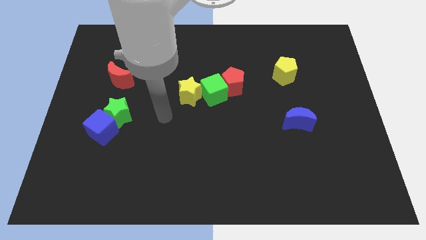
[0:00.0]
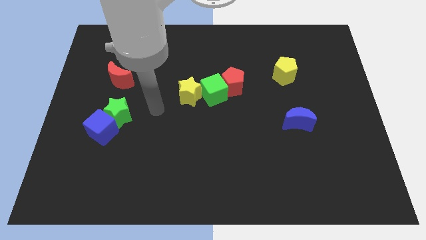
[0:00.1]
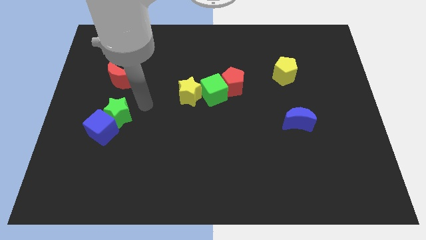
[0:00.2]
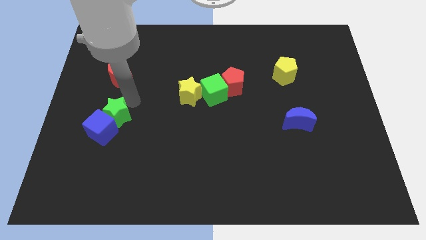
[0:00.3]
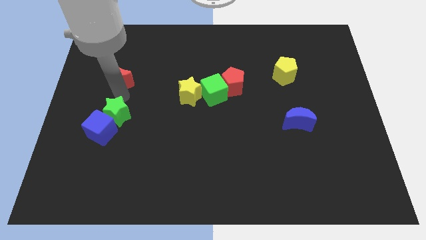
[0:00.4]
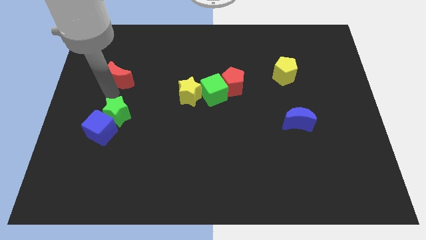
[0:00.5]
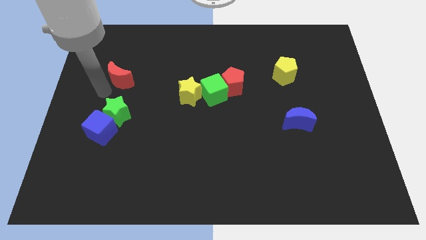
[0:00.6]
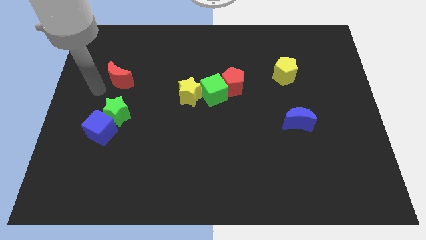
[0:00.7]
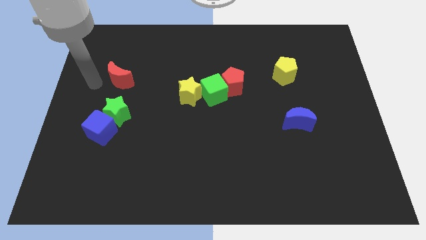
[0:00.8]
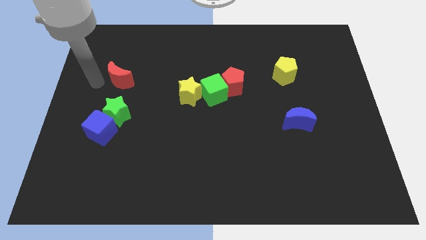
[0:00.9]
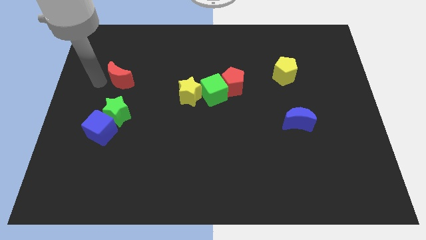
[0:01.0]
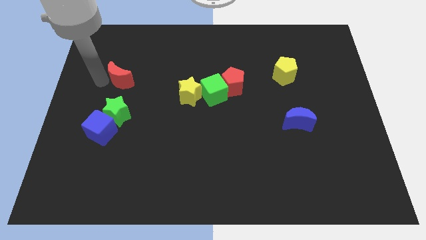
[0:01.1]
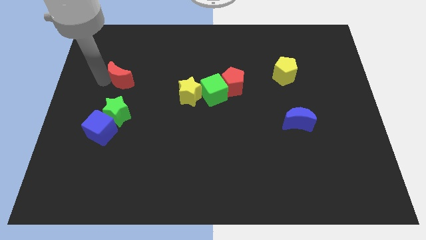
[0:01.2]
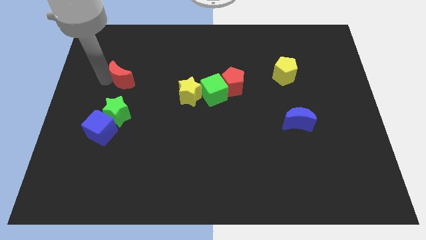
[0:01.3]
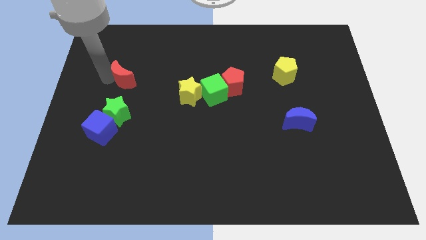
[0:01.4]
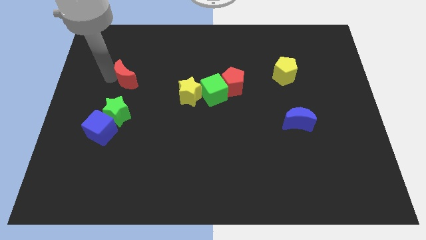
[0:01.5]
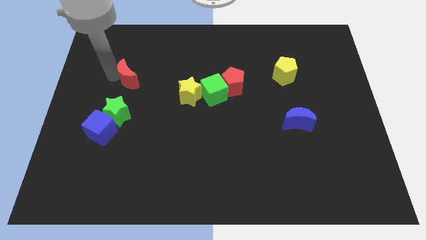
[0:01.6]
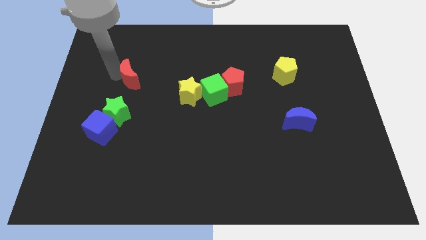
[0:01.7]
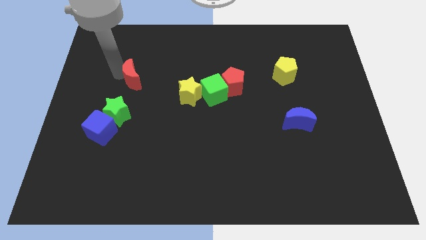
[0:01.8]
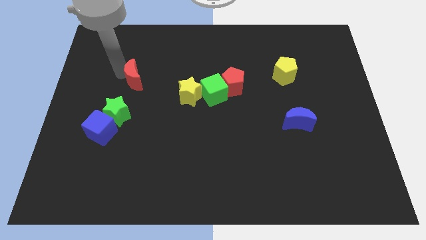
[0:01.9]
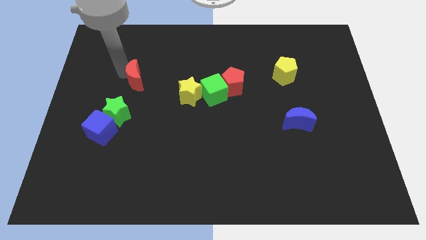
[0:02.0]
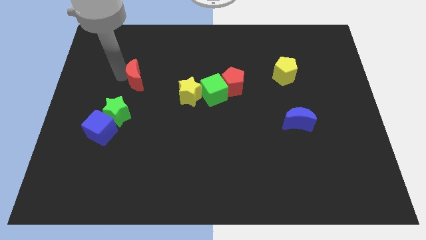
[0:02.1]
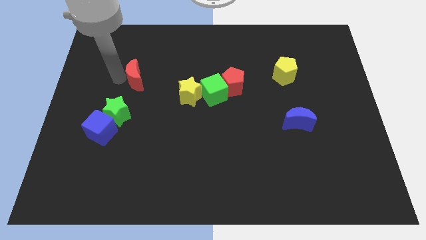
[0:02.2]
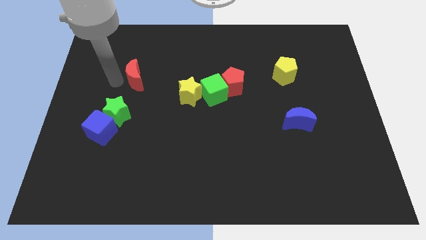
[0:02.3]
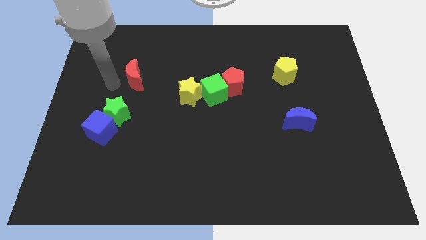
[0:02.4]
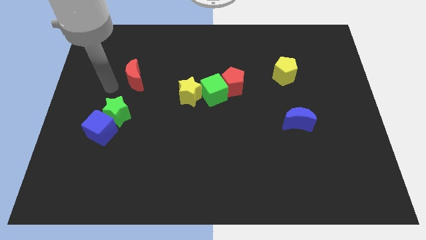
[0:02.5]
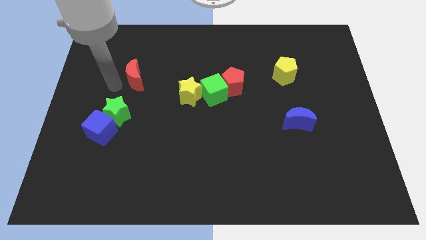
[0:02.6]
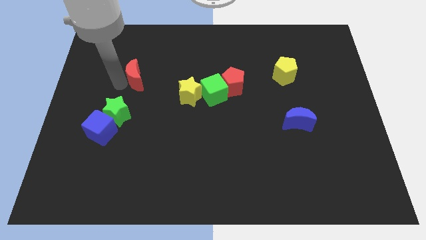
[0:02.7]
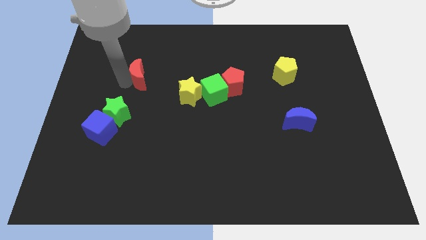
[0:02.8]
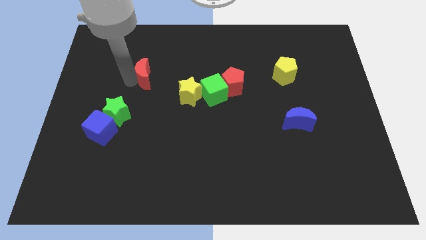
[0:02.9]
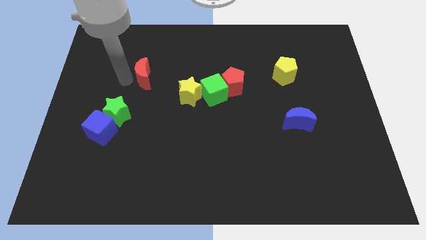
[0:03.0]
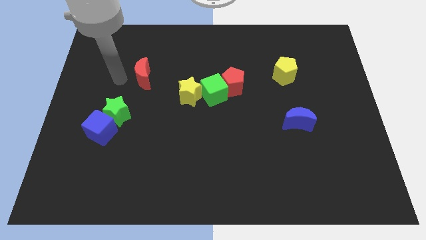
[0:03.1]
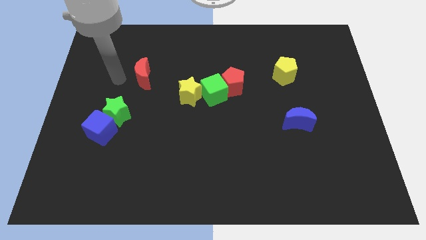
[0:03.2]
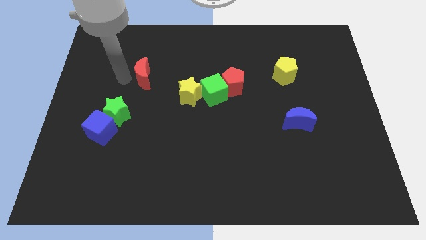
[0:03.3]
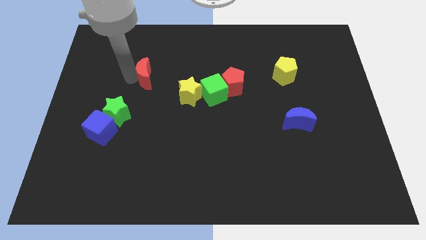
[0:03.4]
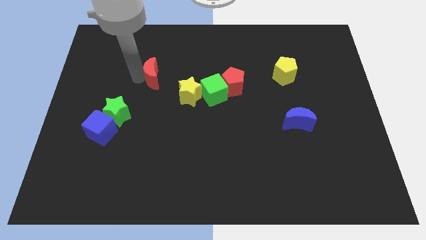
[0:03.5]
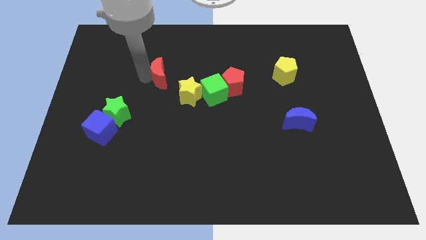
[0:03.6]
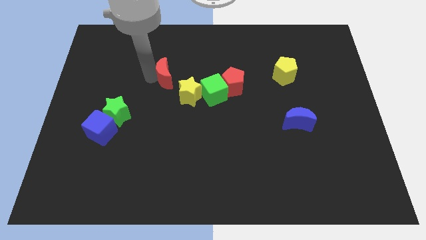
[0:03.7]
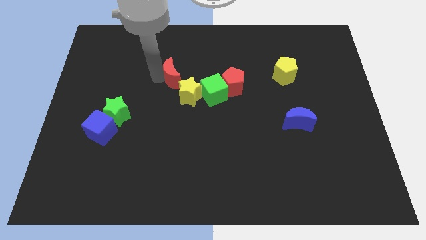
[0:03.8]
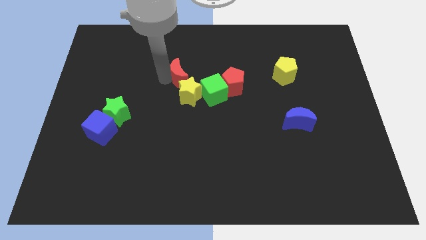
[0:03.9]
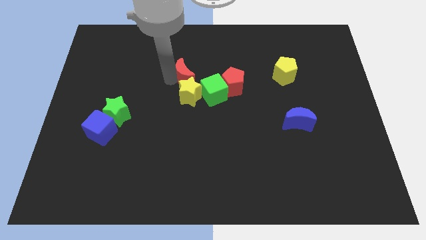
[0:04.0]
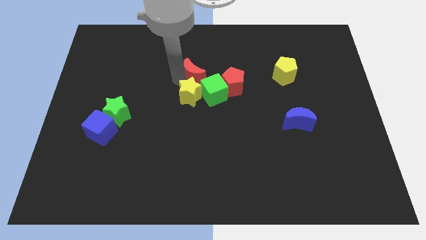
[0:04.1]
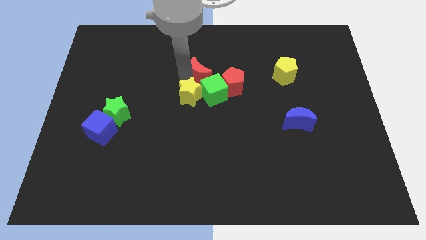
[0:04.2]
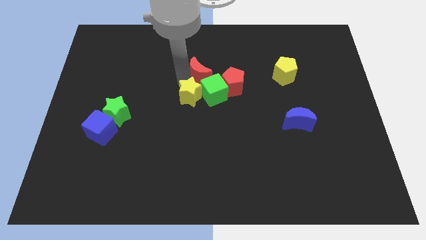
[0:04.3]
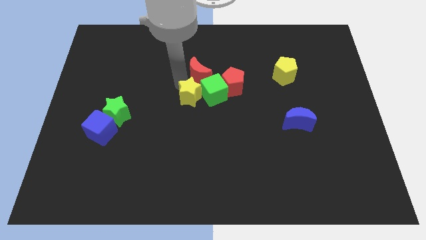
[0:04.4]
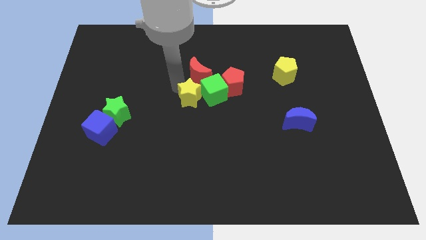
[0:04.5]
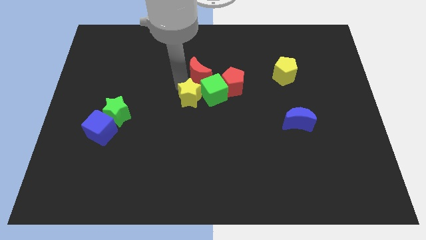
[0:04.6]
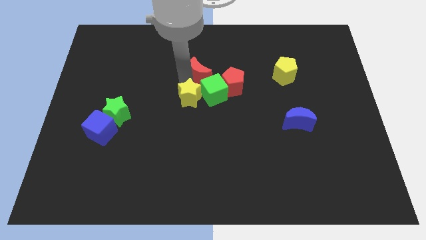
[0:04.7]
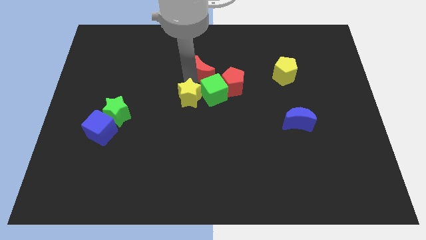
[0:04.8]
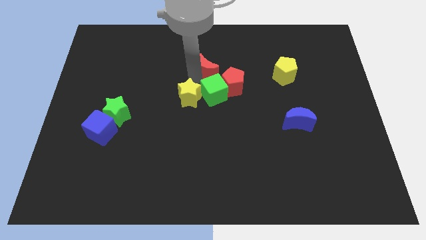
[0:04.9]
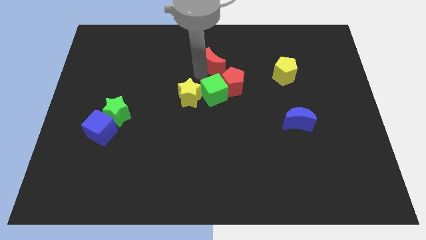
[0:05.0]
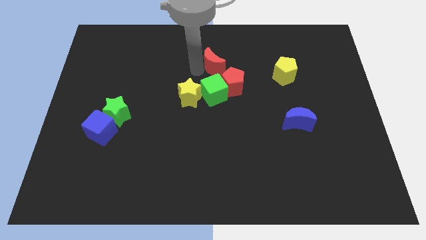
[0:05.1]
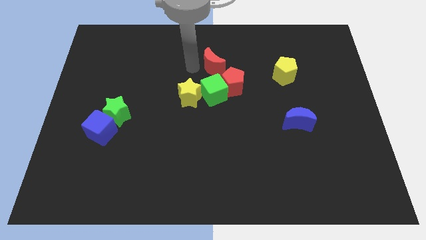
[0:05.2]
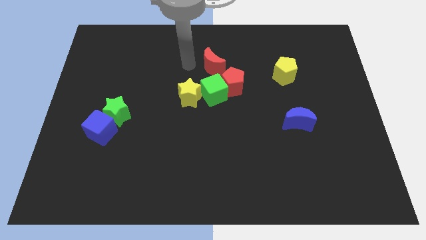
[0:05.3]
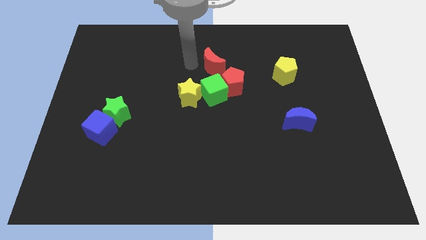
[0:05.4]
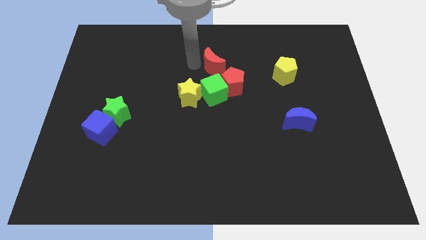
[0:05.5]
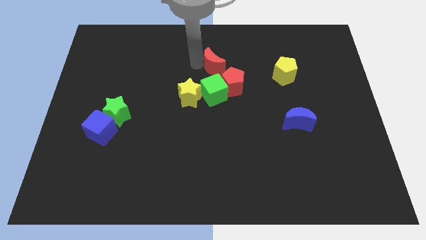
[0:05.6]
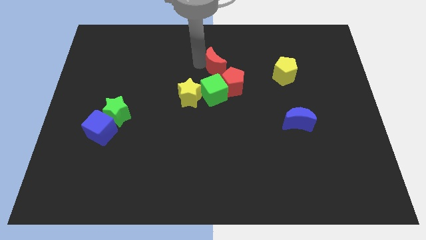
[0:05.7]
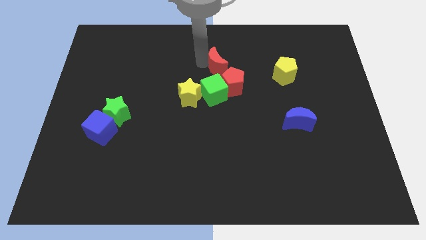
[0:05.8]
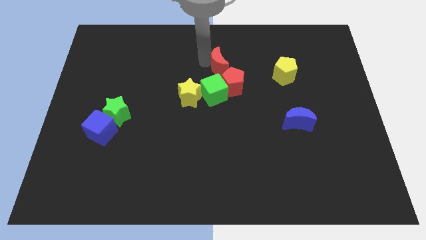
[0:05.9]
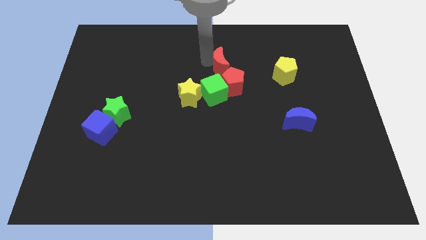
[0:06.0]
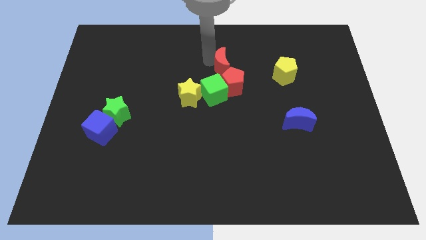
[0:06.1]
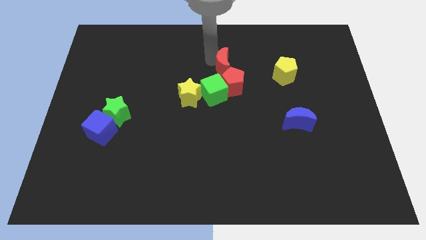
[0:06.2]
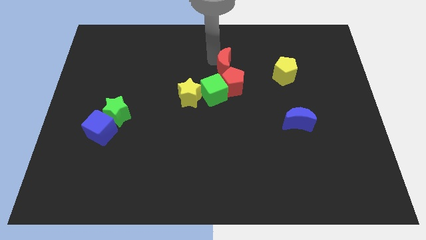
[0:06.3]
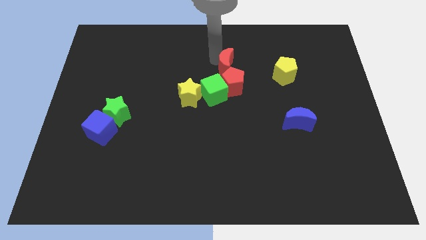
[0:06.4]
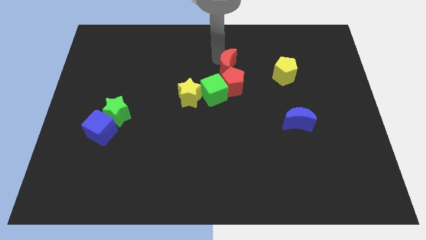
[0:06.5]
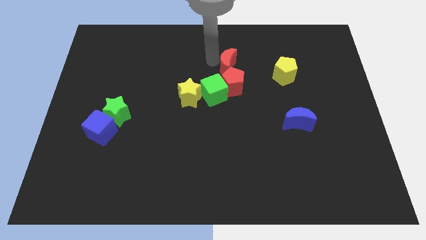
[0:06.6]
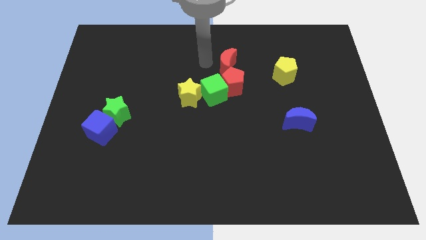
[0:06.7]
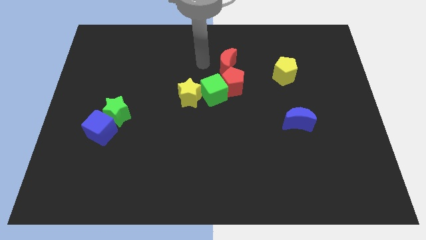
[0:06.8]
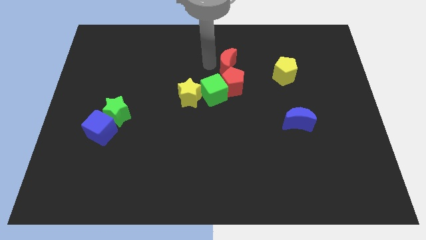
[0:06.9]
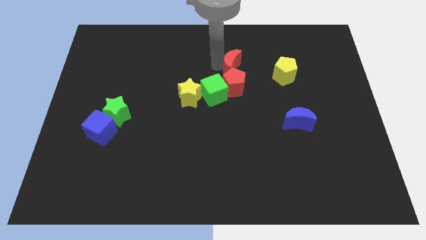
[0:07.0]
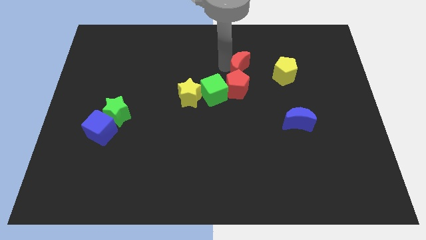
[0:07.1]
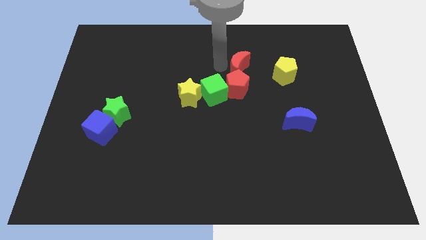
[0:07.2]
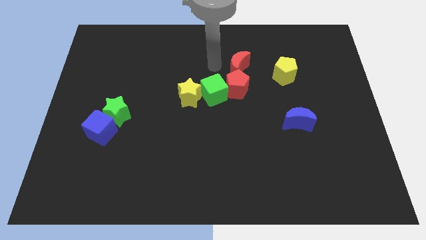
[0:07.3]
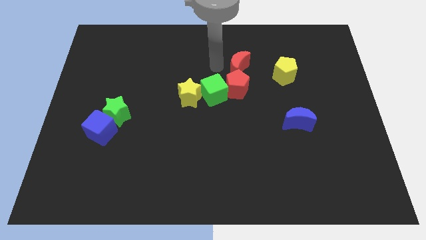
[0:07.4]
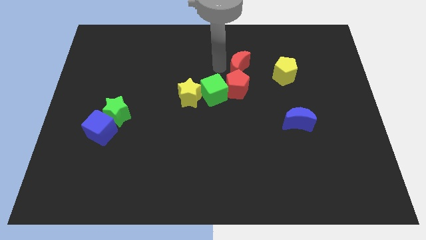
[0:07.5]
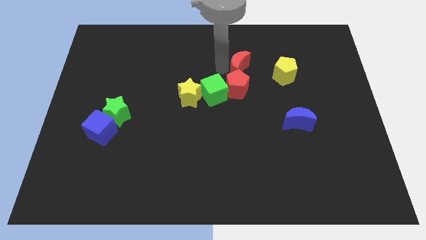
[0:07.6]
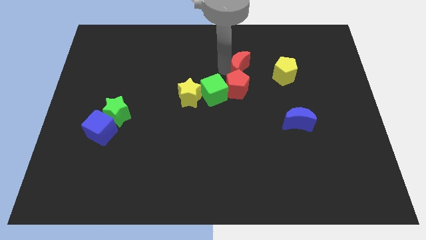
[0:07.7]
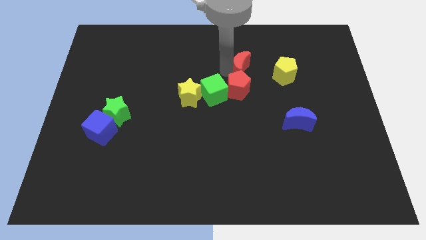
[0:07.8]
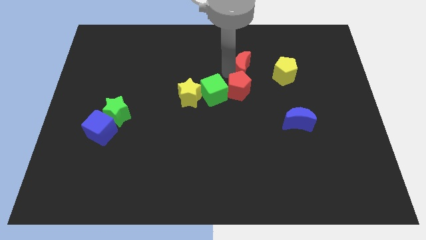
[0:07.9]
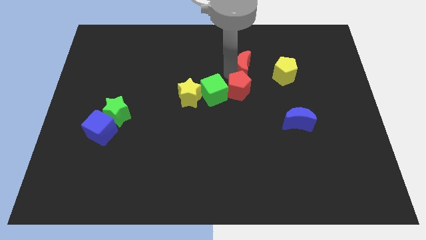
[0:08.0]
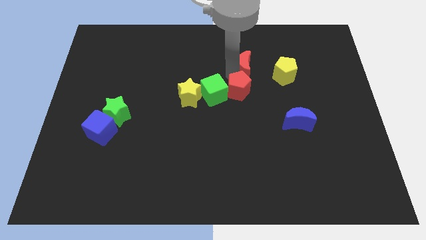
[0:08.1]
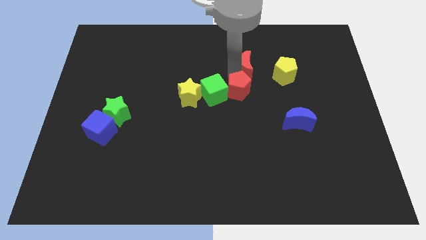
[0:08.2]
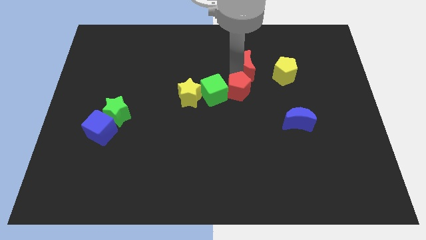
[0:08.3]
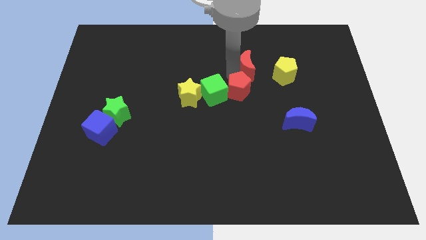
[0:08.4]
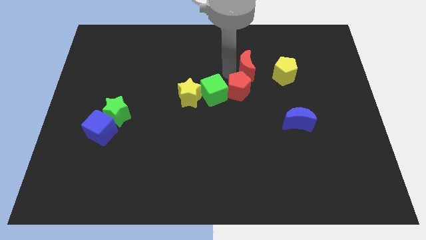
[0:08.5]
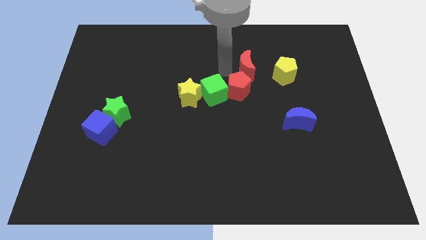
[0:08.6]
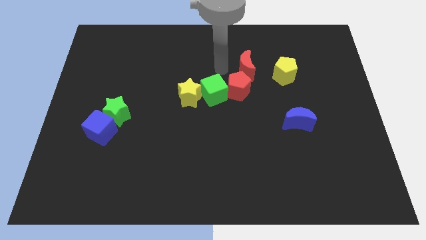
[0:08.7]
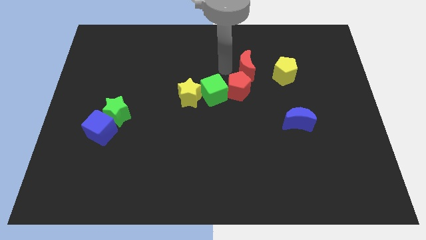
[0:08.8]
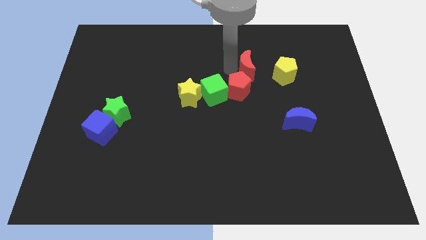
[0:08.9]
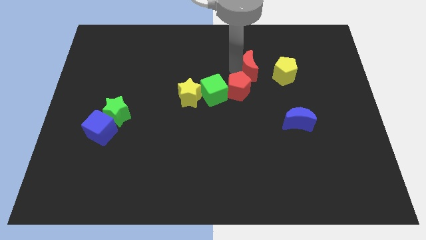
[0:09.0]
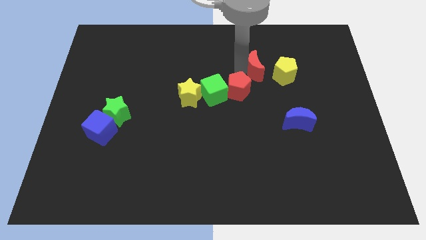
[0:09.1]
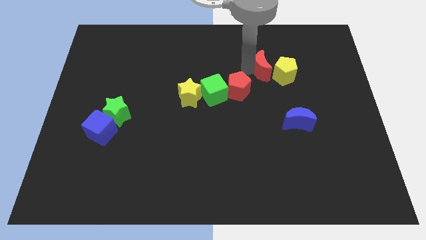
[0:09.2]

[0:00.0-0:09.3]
move the red moon next to the yellow pentagon
